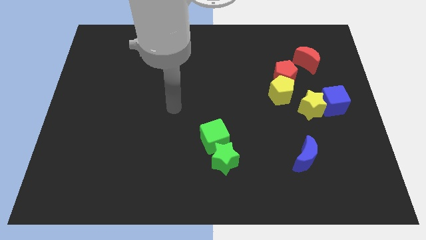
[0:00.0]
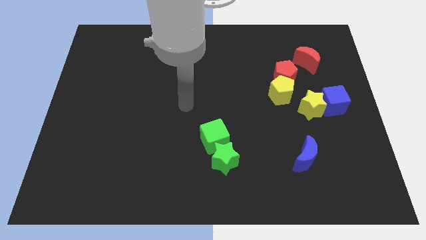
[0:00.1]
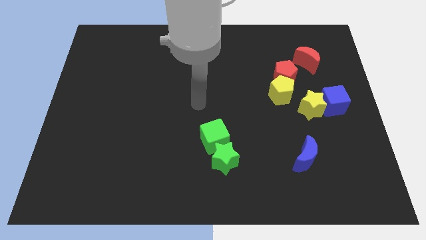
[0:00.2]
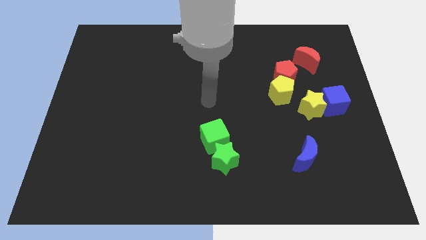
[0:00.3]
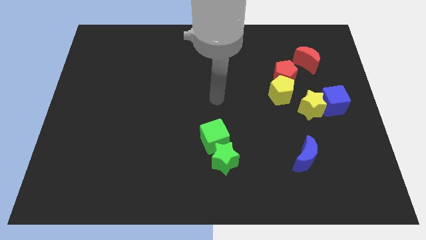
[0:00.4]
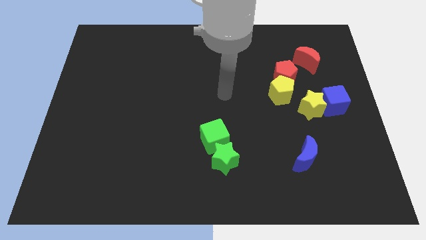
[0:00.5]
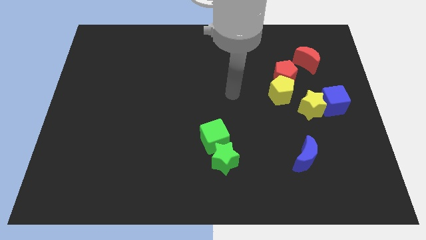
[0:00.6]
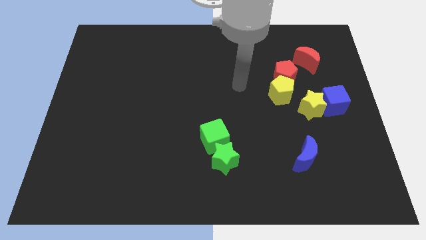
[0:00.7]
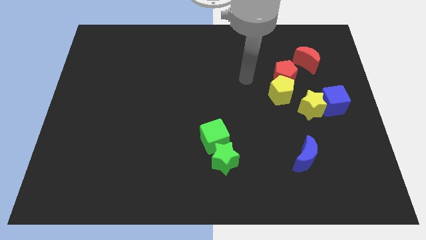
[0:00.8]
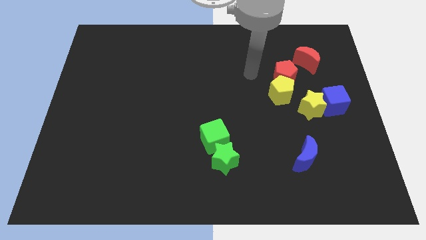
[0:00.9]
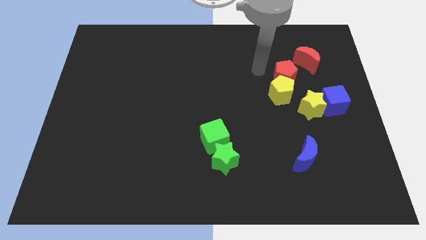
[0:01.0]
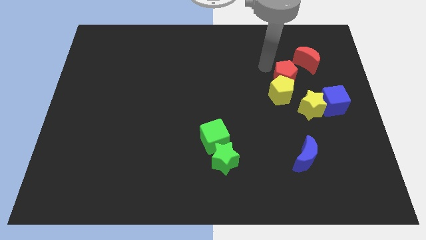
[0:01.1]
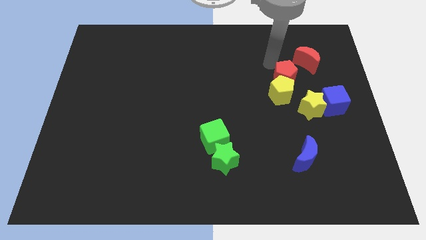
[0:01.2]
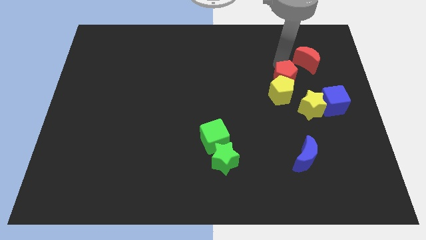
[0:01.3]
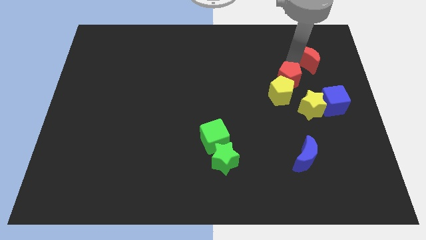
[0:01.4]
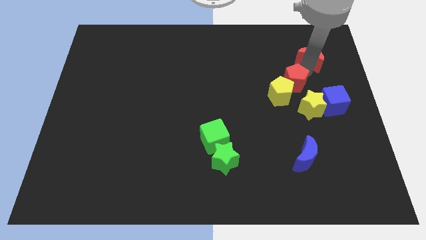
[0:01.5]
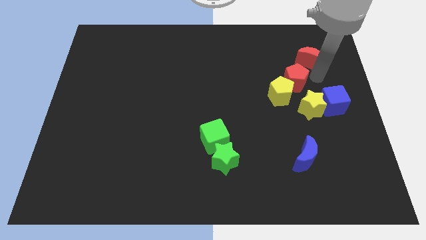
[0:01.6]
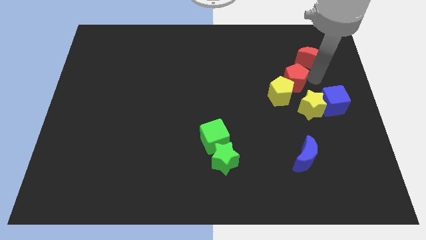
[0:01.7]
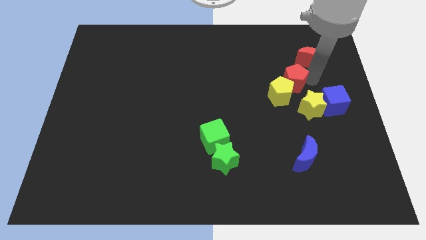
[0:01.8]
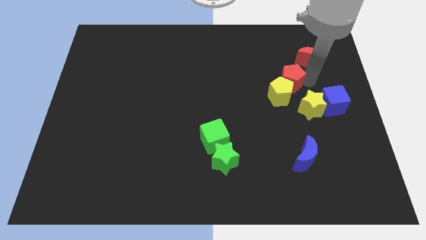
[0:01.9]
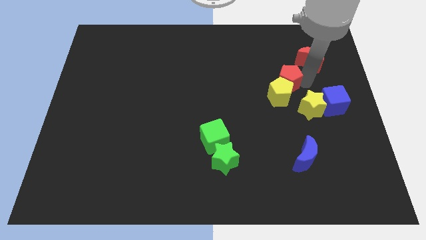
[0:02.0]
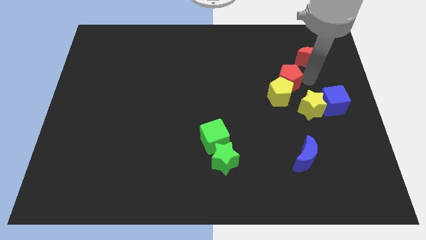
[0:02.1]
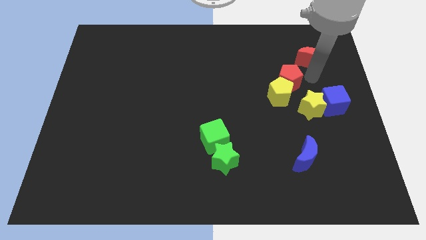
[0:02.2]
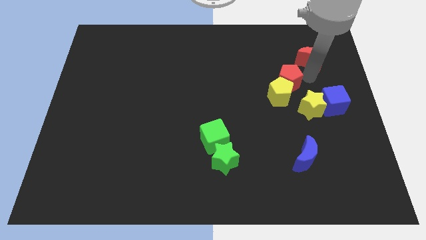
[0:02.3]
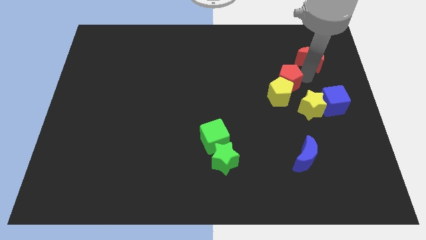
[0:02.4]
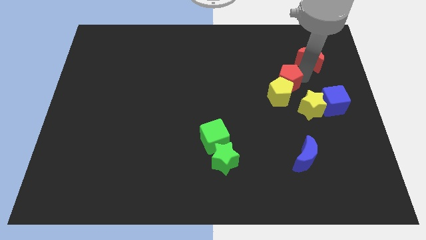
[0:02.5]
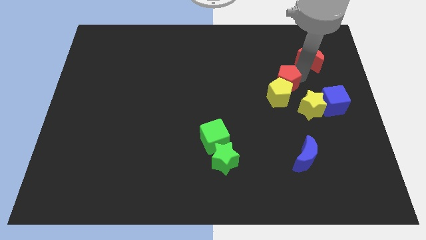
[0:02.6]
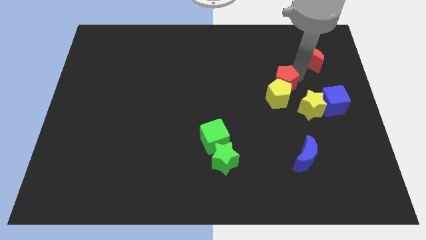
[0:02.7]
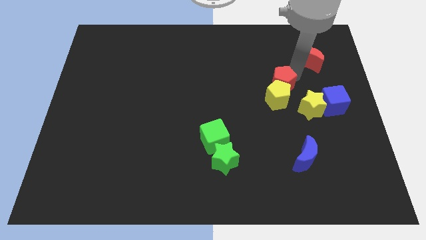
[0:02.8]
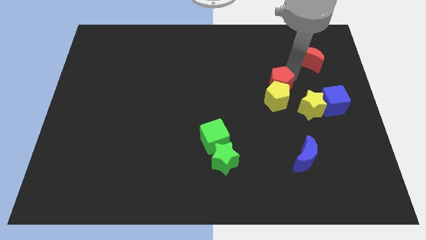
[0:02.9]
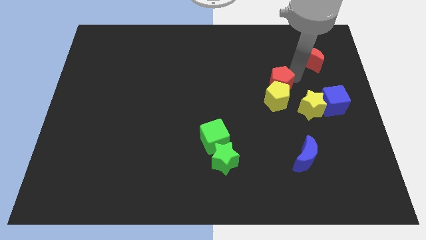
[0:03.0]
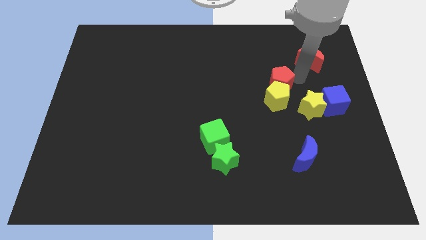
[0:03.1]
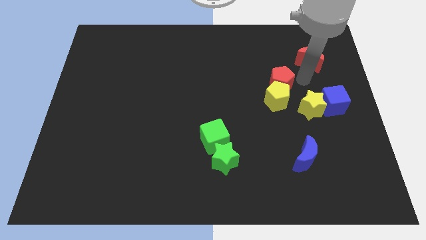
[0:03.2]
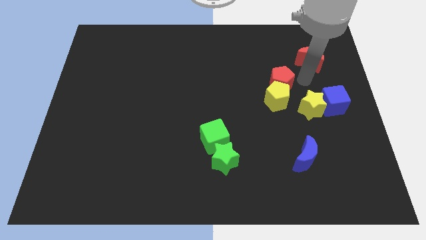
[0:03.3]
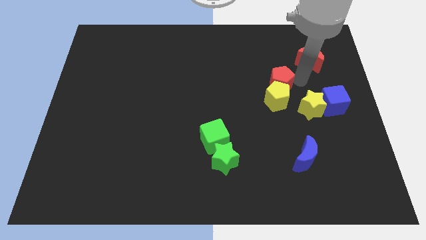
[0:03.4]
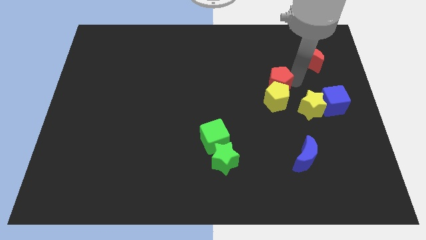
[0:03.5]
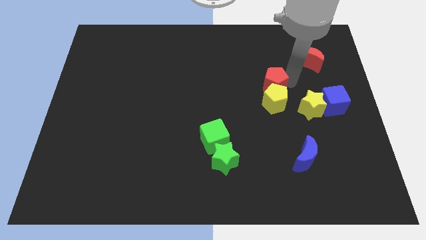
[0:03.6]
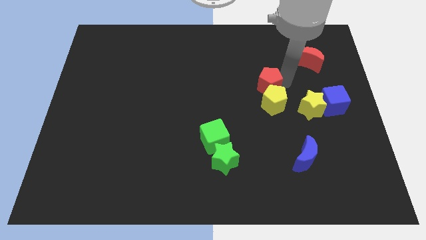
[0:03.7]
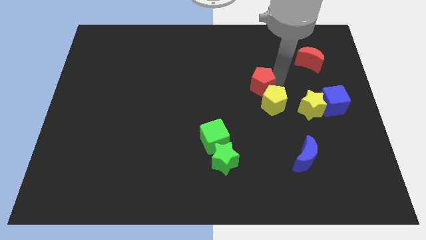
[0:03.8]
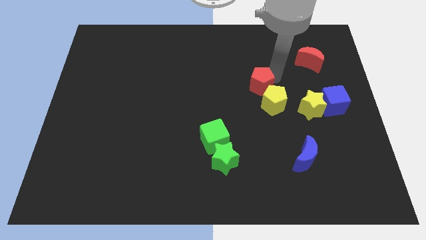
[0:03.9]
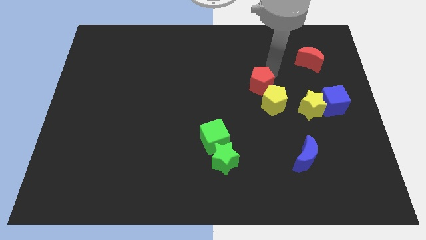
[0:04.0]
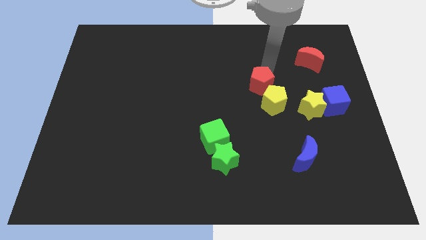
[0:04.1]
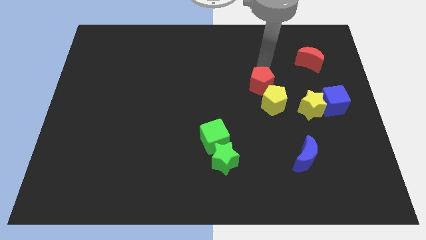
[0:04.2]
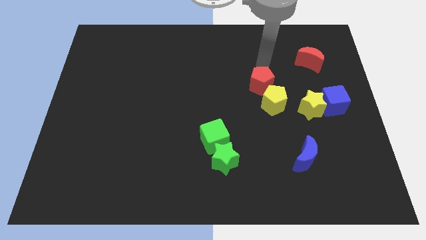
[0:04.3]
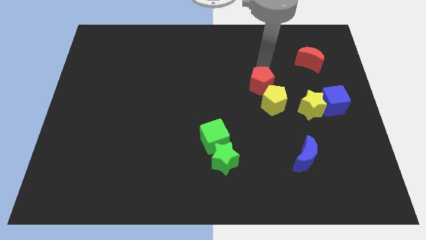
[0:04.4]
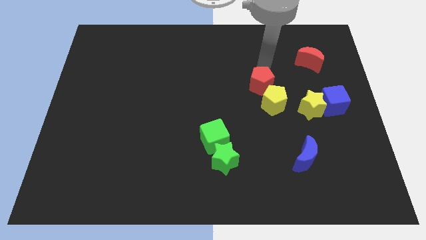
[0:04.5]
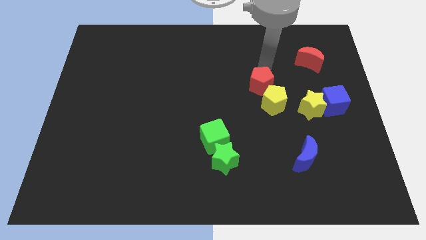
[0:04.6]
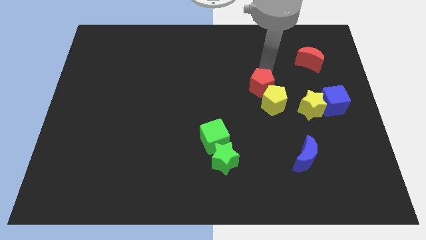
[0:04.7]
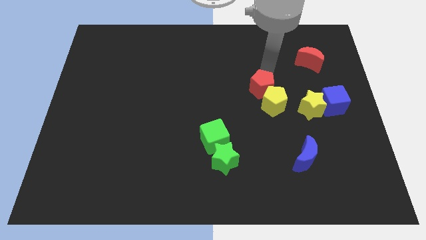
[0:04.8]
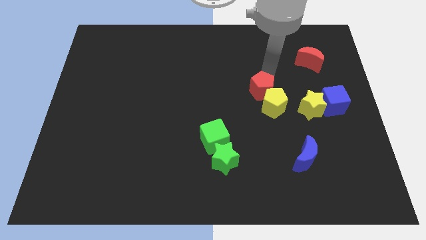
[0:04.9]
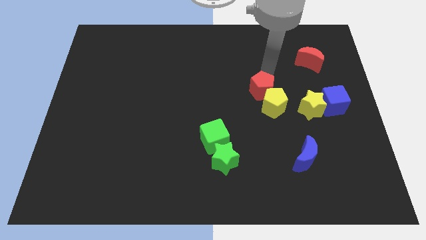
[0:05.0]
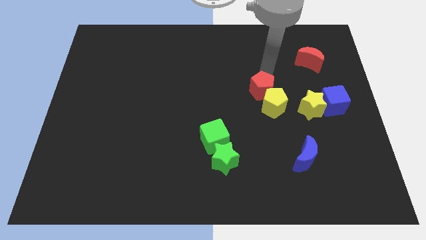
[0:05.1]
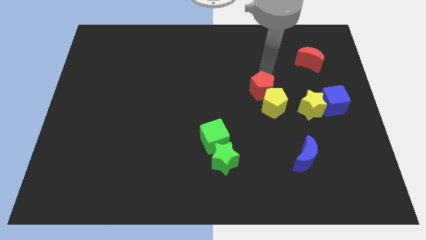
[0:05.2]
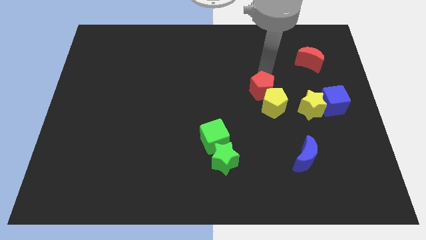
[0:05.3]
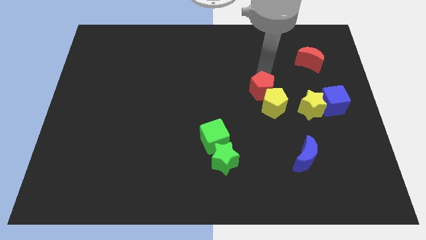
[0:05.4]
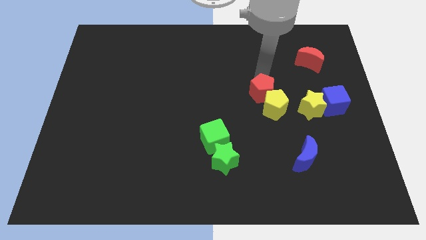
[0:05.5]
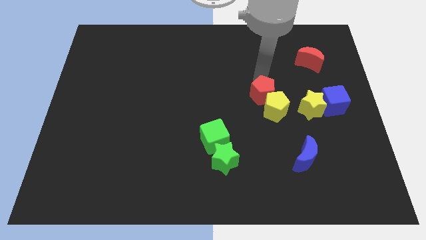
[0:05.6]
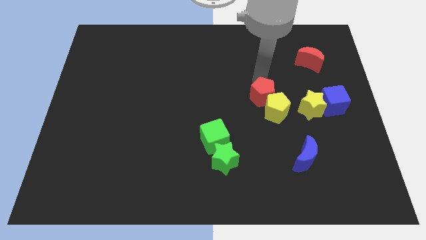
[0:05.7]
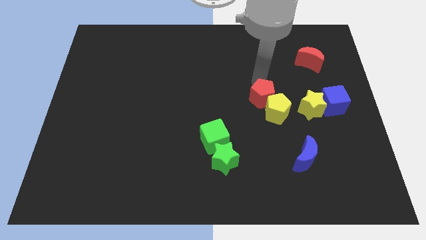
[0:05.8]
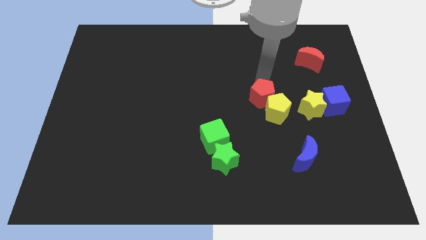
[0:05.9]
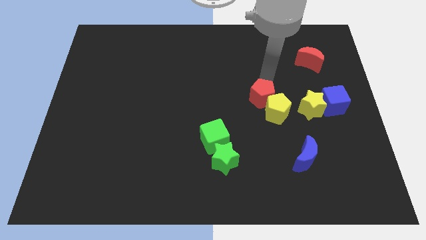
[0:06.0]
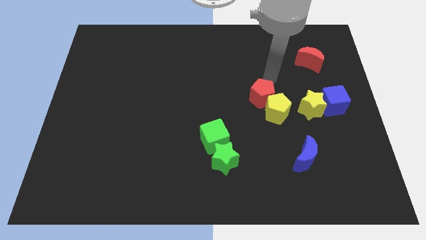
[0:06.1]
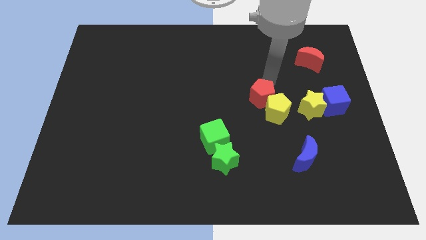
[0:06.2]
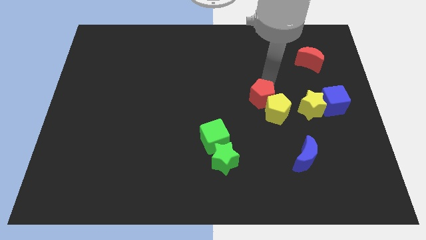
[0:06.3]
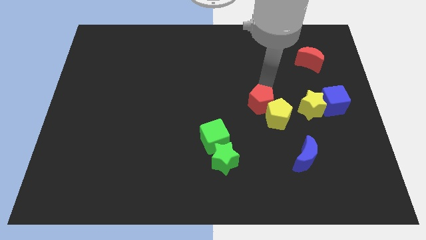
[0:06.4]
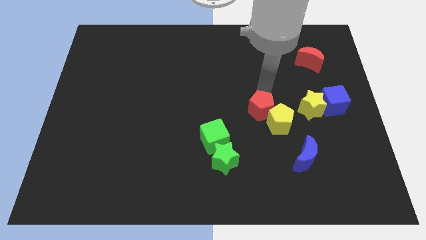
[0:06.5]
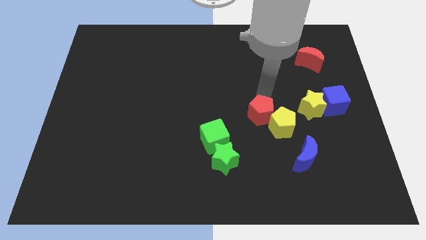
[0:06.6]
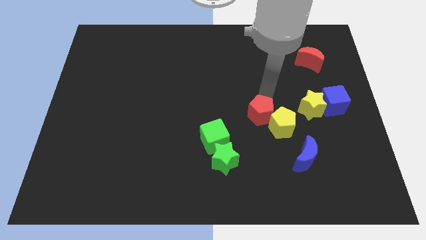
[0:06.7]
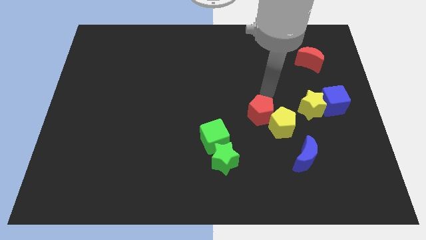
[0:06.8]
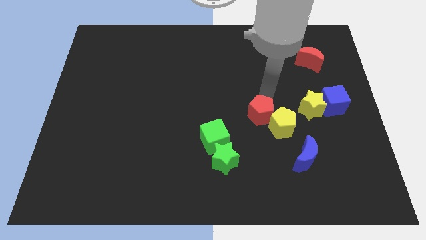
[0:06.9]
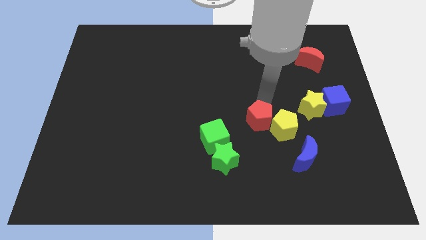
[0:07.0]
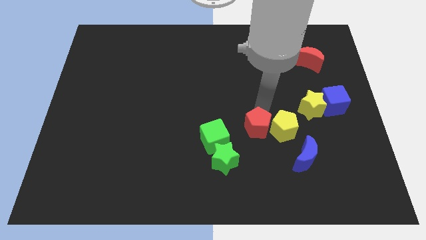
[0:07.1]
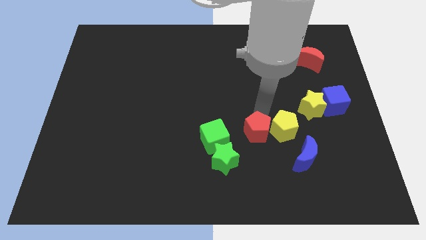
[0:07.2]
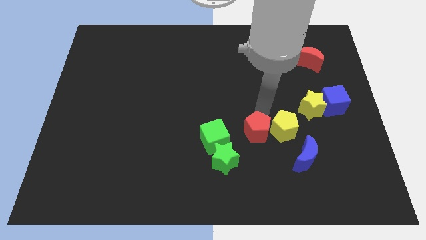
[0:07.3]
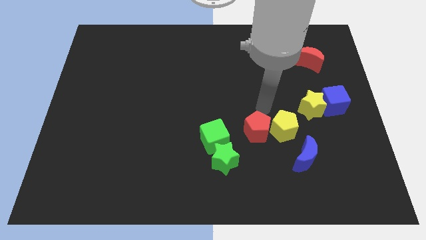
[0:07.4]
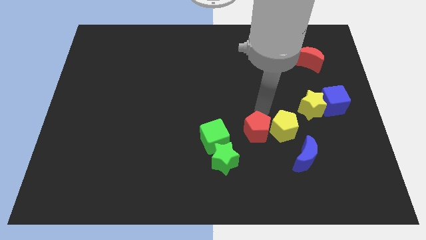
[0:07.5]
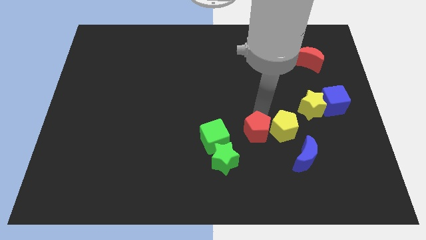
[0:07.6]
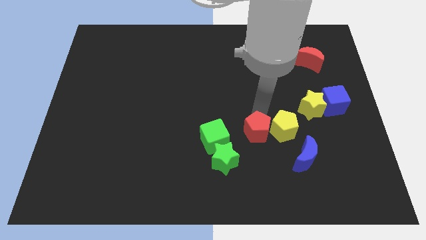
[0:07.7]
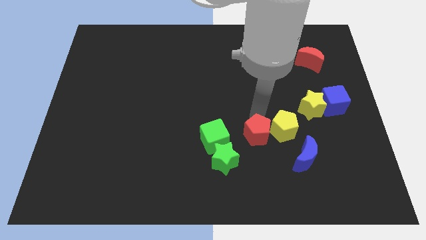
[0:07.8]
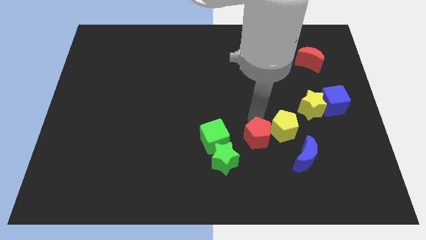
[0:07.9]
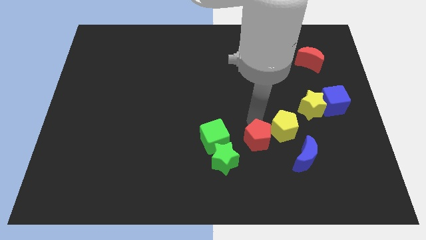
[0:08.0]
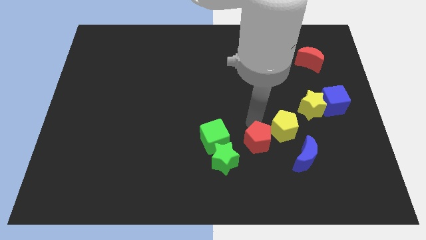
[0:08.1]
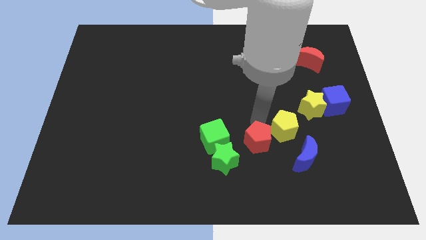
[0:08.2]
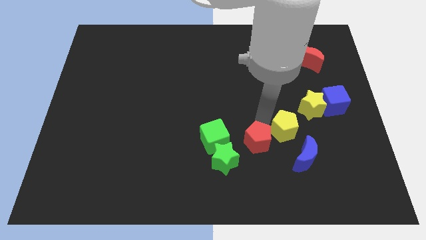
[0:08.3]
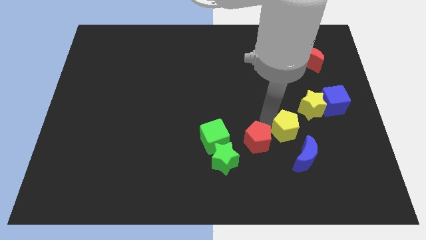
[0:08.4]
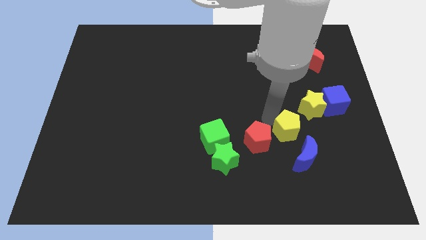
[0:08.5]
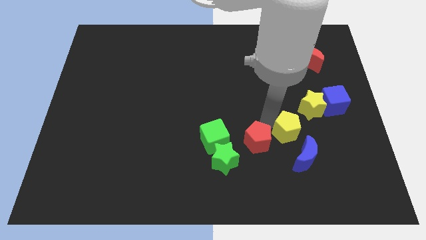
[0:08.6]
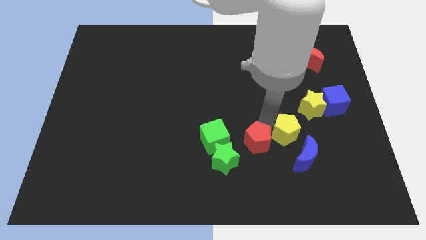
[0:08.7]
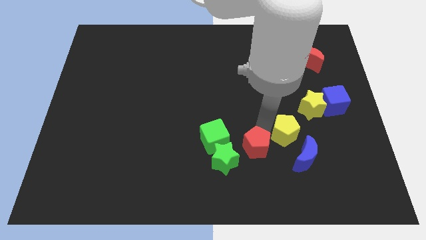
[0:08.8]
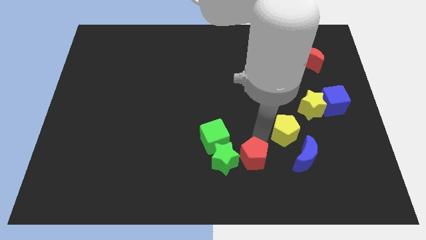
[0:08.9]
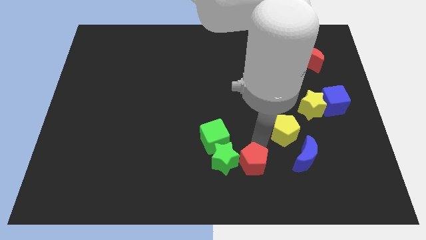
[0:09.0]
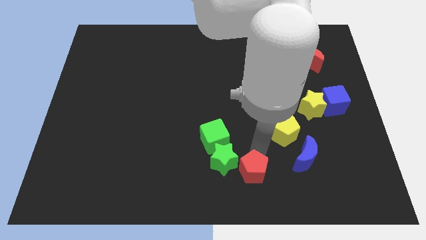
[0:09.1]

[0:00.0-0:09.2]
move the red pentagon to the bottom
